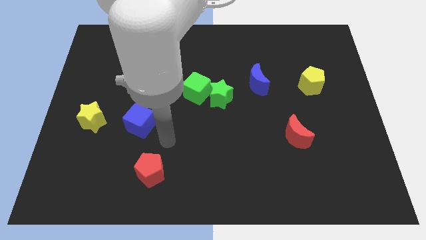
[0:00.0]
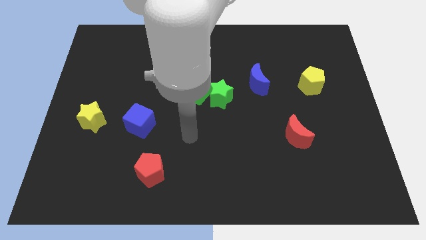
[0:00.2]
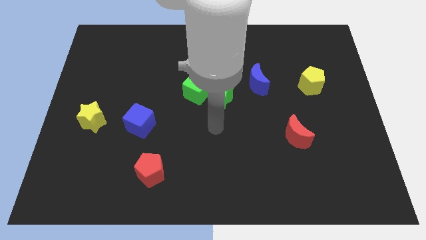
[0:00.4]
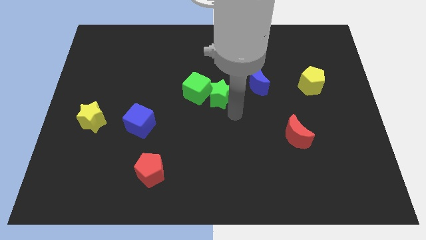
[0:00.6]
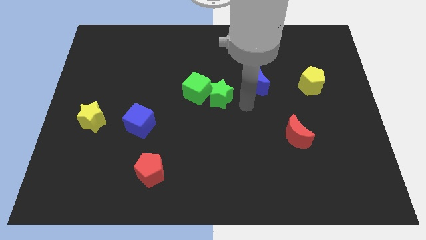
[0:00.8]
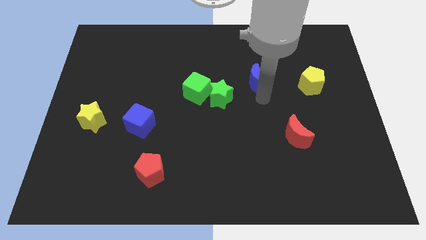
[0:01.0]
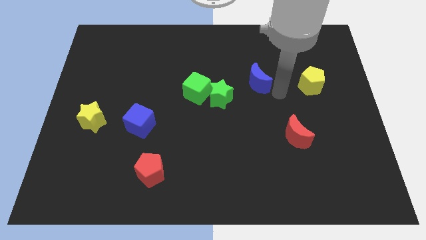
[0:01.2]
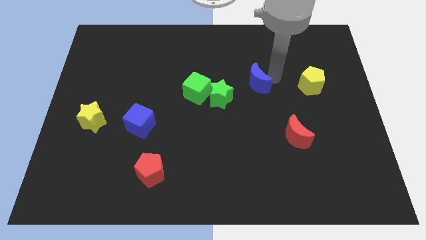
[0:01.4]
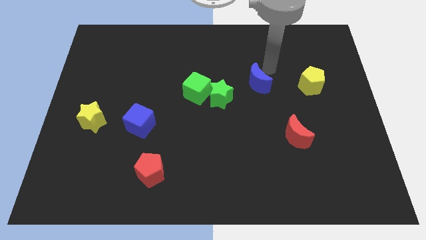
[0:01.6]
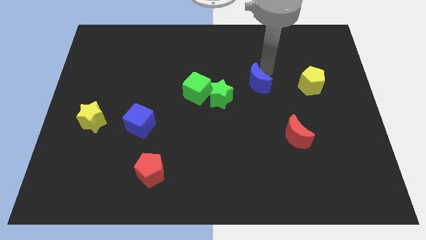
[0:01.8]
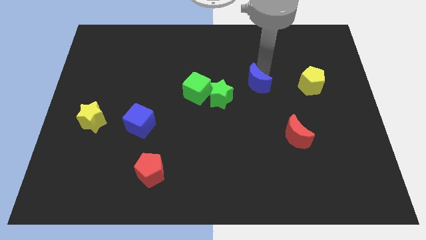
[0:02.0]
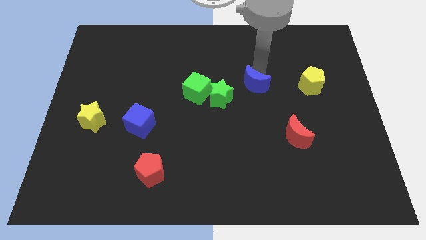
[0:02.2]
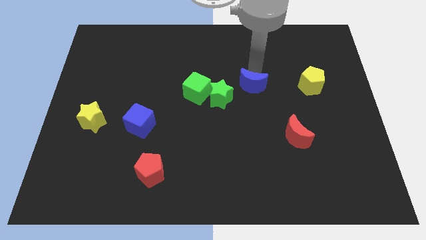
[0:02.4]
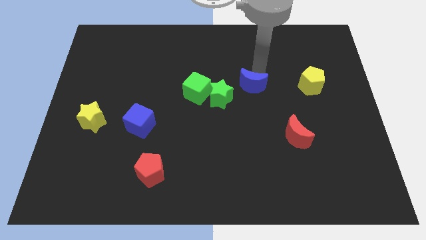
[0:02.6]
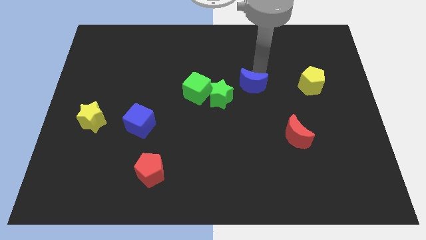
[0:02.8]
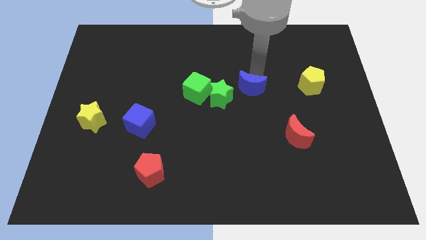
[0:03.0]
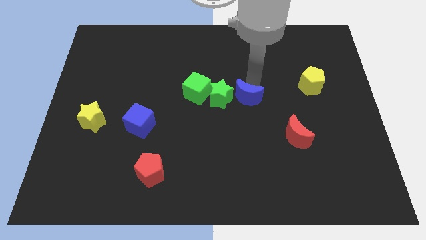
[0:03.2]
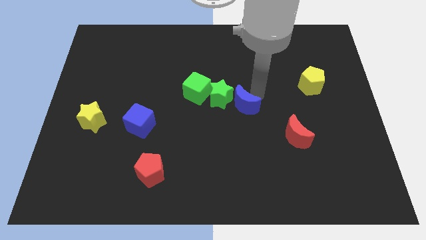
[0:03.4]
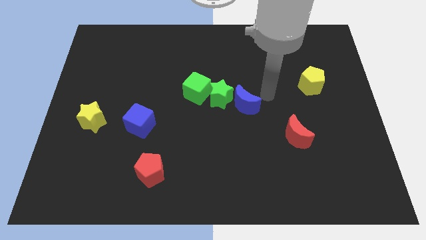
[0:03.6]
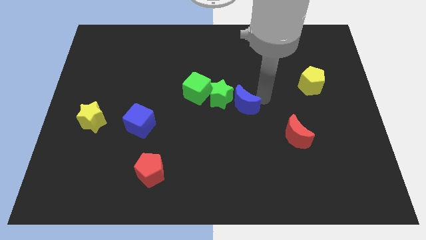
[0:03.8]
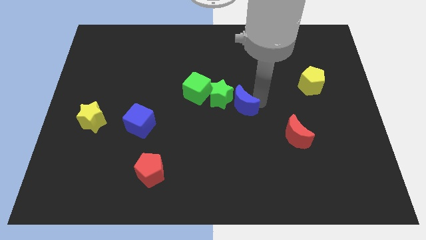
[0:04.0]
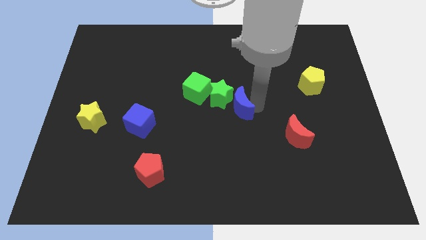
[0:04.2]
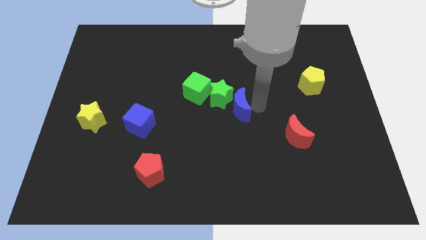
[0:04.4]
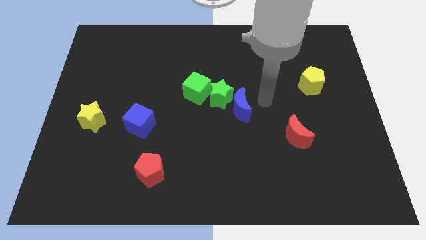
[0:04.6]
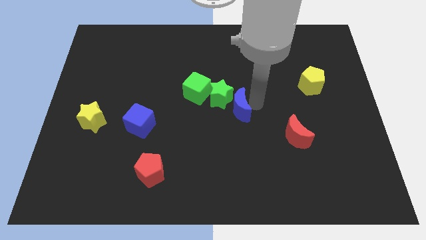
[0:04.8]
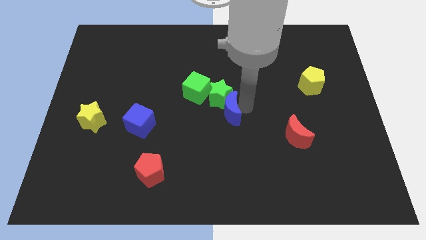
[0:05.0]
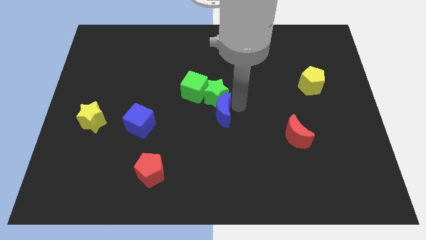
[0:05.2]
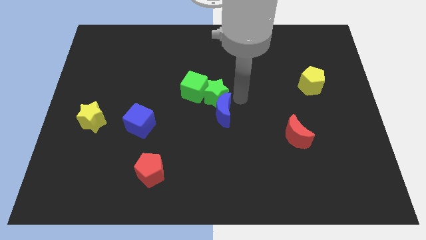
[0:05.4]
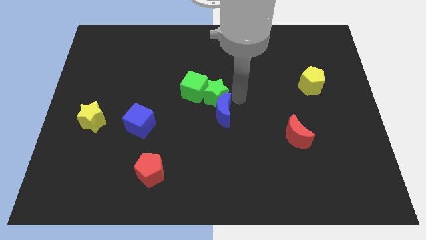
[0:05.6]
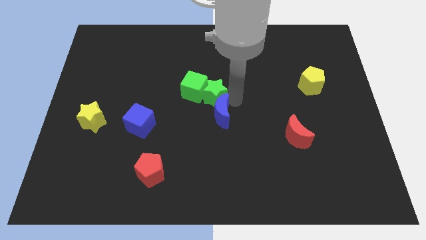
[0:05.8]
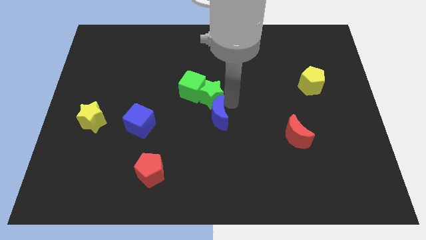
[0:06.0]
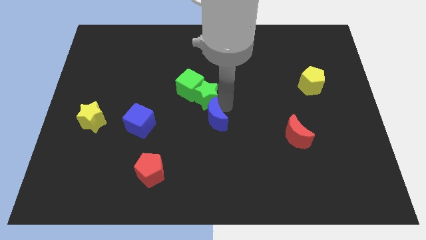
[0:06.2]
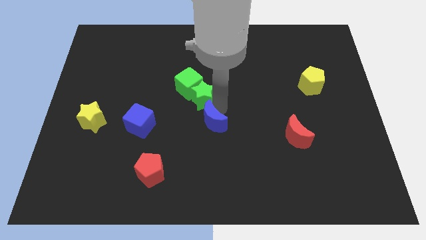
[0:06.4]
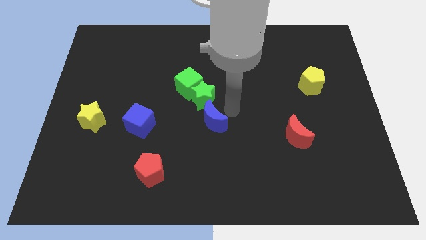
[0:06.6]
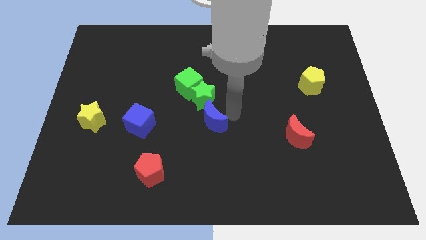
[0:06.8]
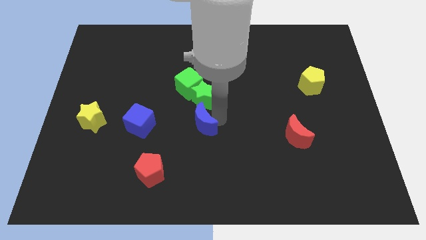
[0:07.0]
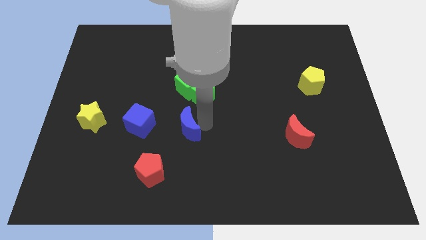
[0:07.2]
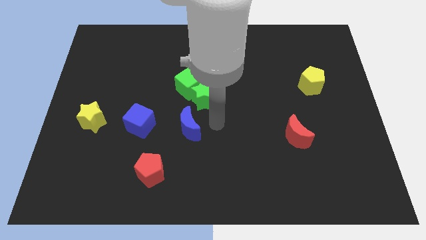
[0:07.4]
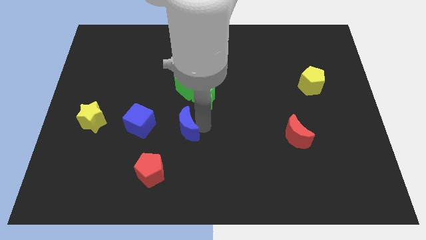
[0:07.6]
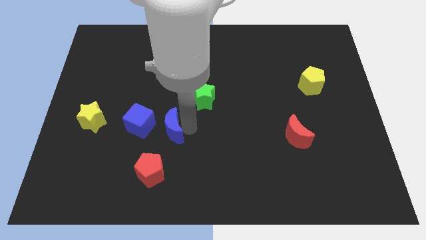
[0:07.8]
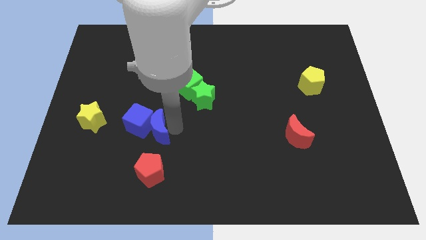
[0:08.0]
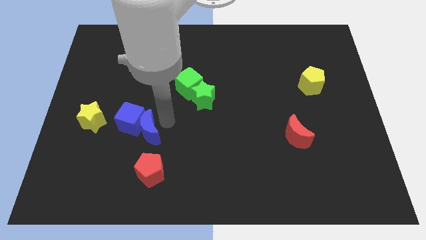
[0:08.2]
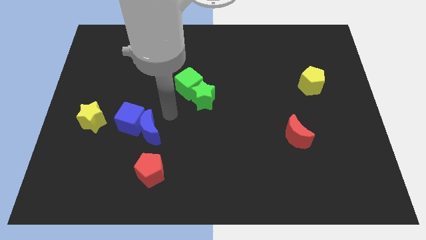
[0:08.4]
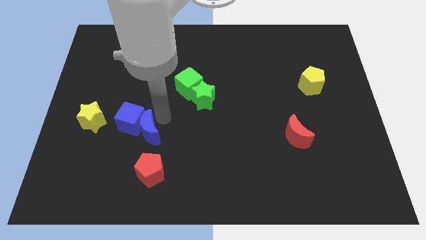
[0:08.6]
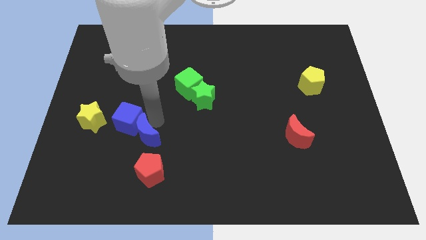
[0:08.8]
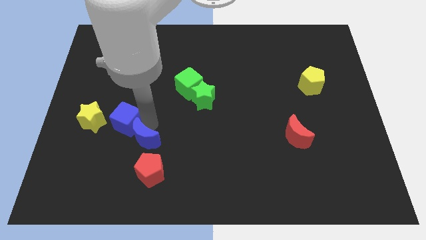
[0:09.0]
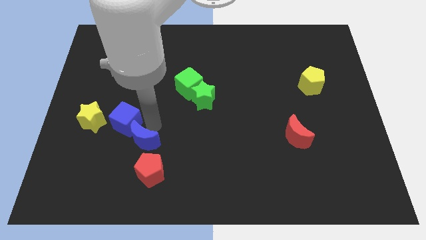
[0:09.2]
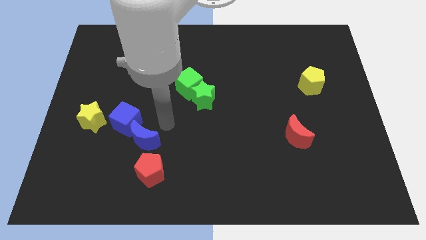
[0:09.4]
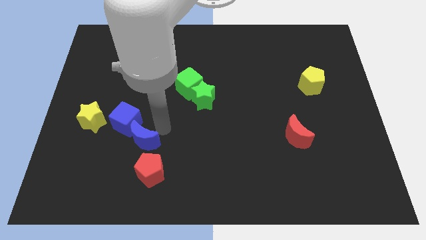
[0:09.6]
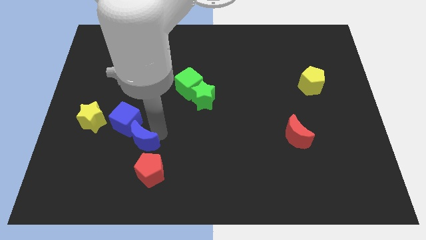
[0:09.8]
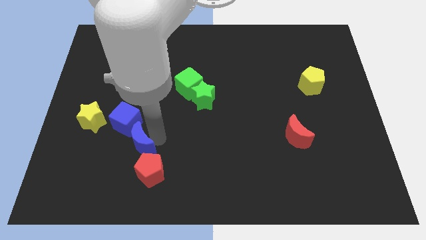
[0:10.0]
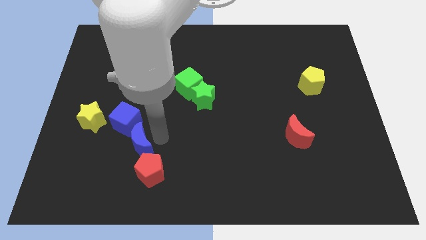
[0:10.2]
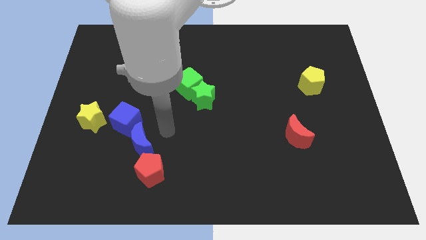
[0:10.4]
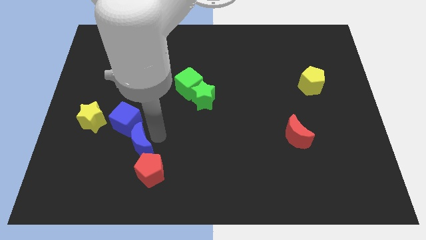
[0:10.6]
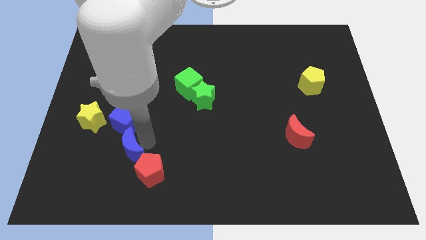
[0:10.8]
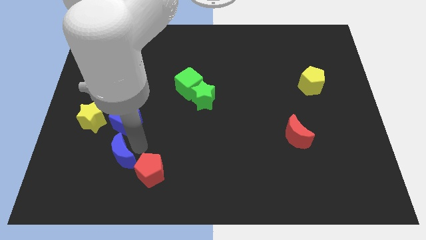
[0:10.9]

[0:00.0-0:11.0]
push the blue moon to the left of the red pentagon

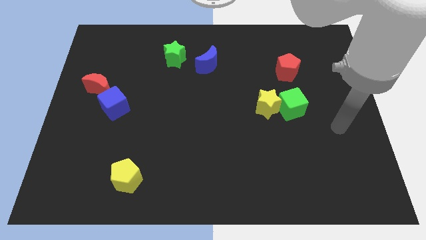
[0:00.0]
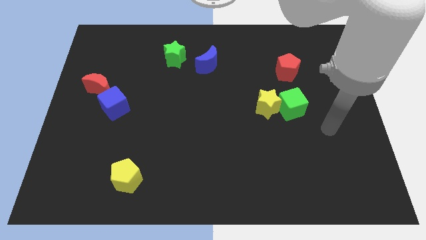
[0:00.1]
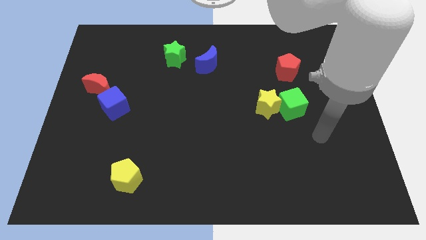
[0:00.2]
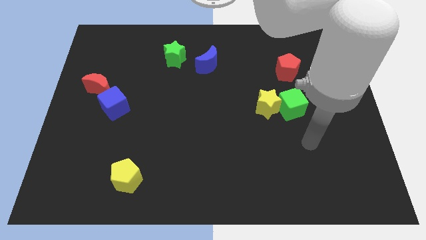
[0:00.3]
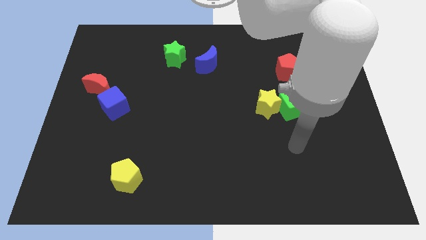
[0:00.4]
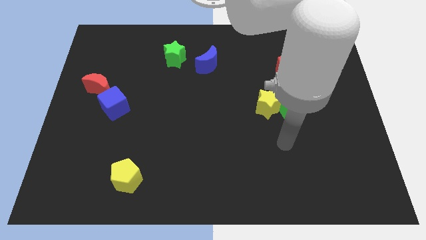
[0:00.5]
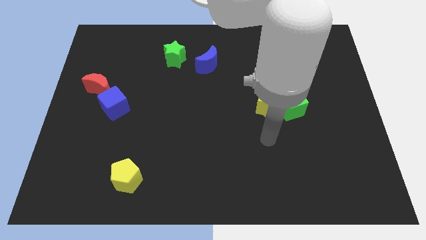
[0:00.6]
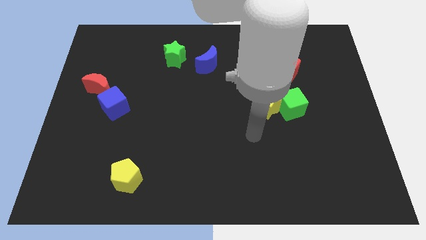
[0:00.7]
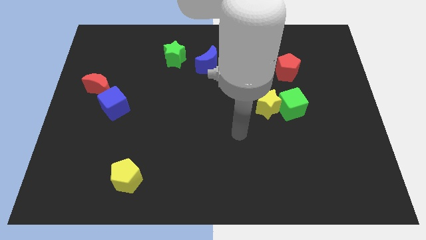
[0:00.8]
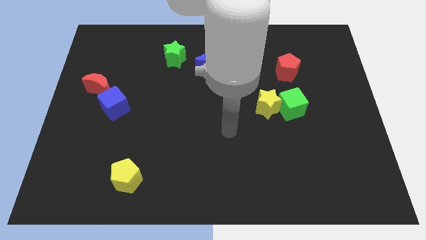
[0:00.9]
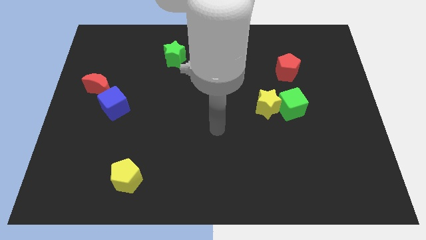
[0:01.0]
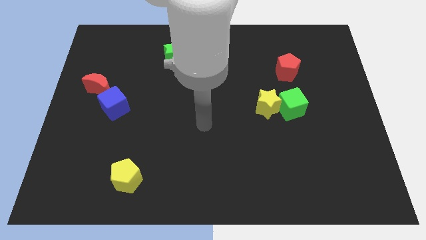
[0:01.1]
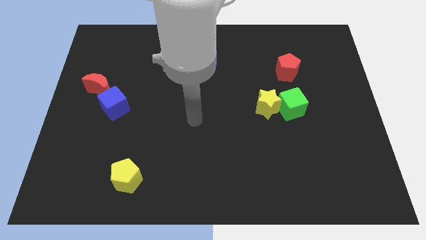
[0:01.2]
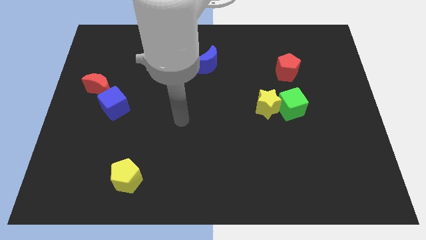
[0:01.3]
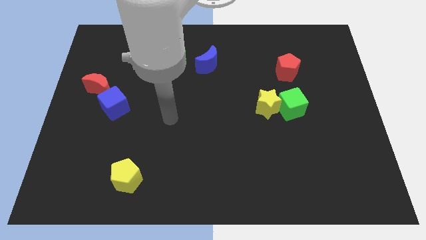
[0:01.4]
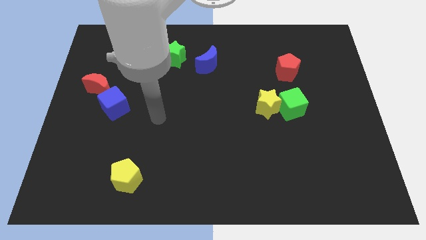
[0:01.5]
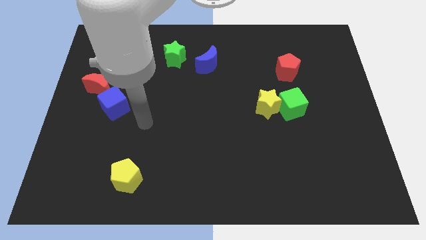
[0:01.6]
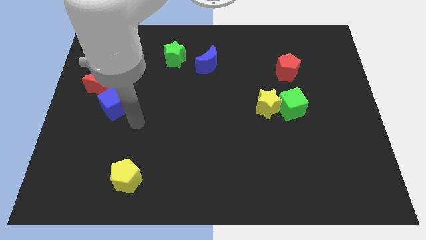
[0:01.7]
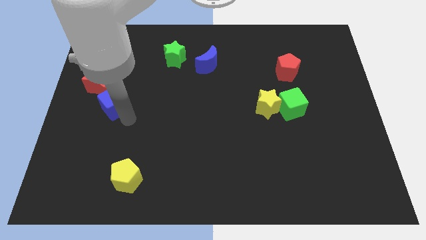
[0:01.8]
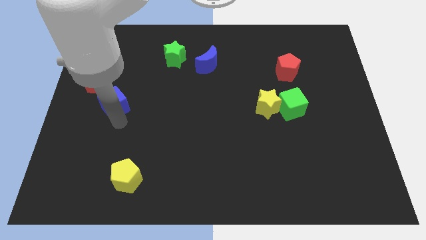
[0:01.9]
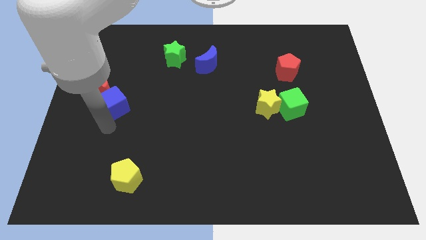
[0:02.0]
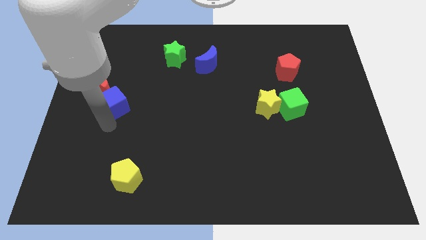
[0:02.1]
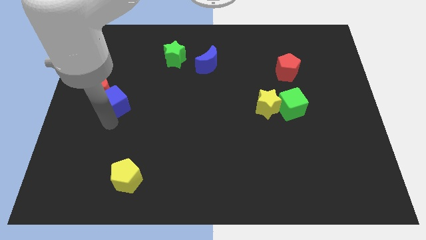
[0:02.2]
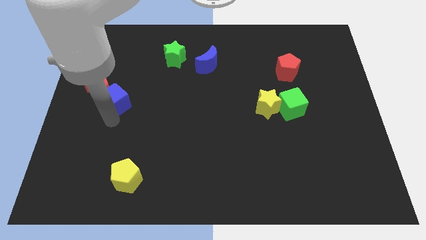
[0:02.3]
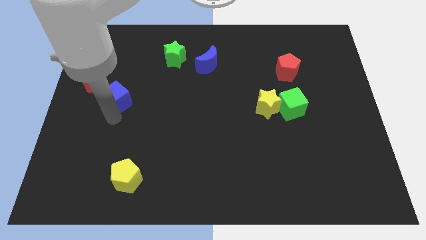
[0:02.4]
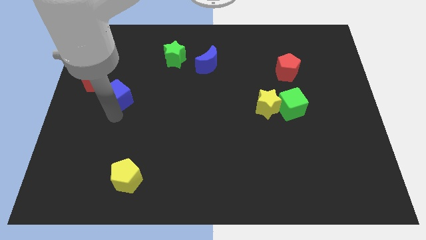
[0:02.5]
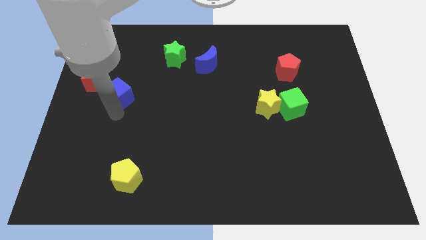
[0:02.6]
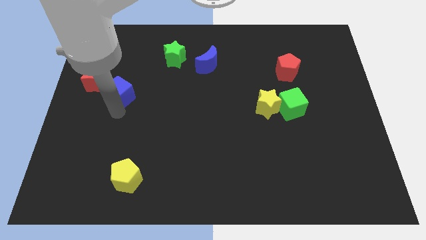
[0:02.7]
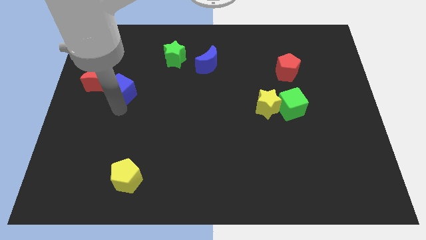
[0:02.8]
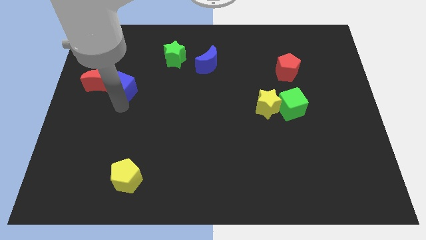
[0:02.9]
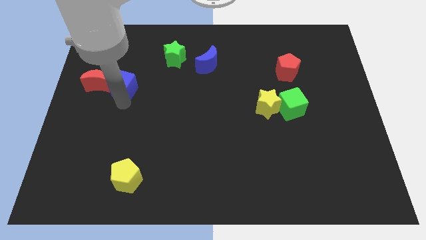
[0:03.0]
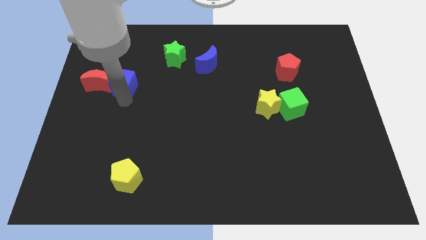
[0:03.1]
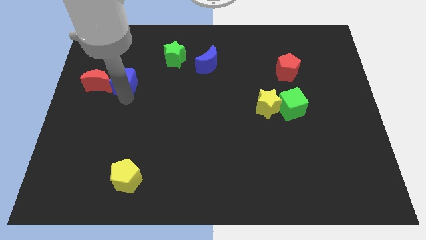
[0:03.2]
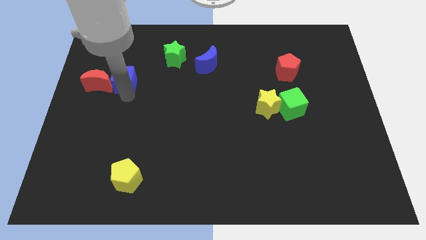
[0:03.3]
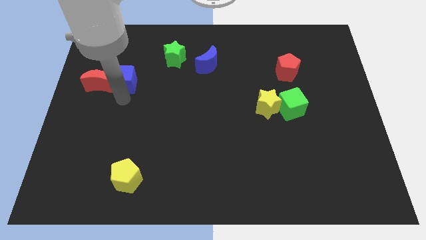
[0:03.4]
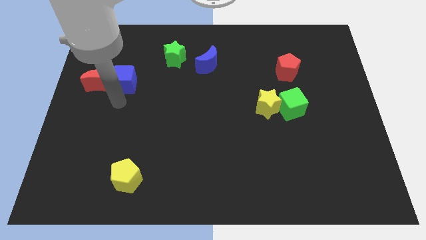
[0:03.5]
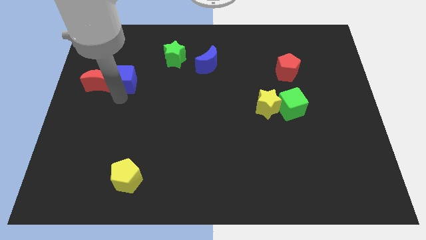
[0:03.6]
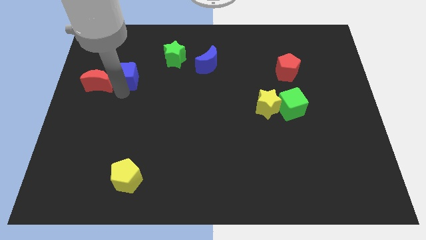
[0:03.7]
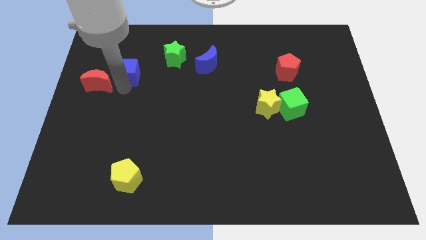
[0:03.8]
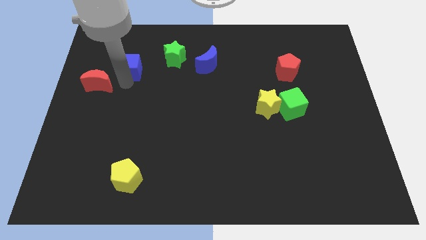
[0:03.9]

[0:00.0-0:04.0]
put the blue cube to the left of the green star
